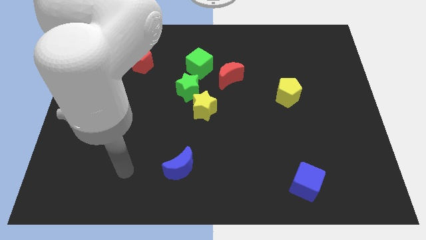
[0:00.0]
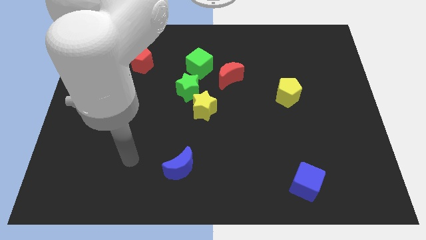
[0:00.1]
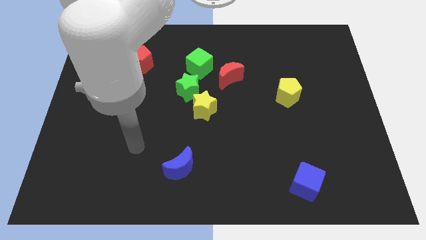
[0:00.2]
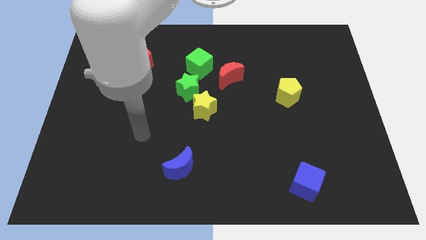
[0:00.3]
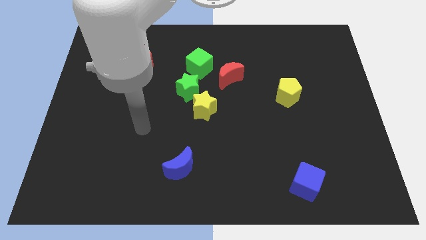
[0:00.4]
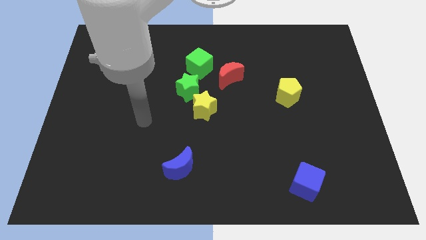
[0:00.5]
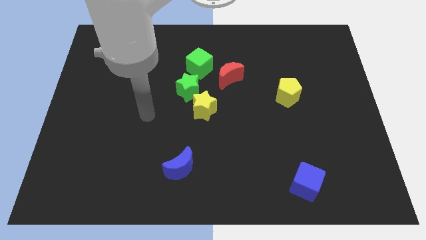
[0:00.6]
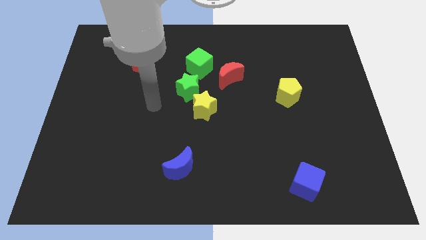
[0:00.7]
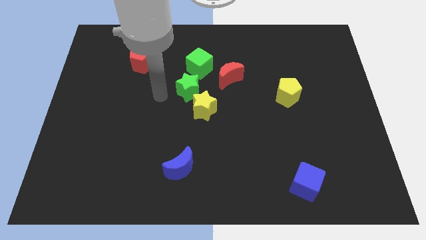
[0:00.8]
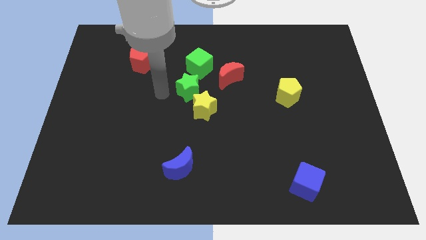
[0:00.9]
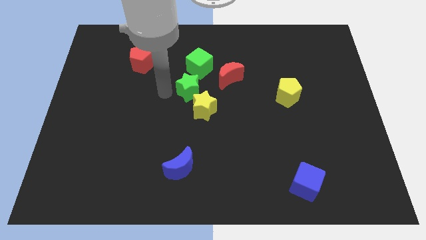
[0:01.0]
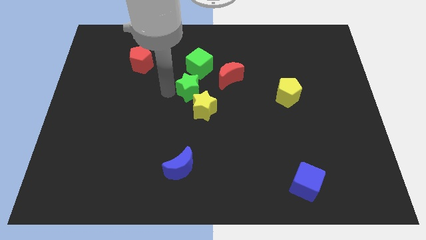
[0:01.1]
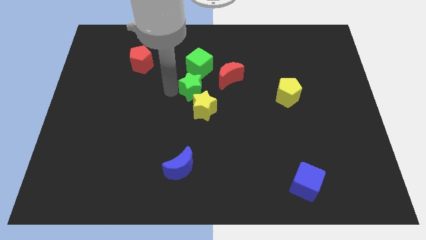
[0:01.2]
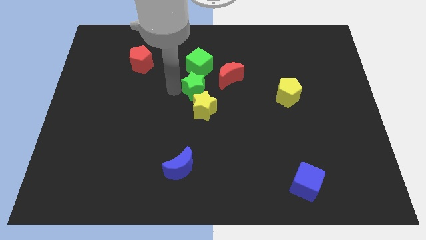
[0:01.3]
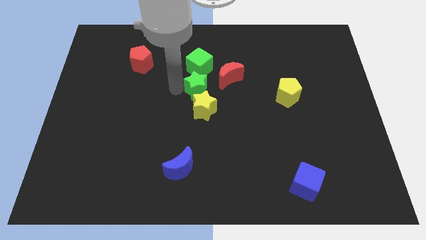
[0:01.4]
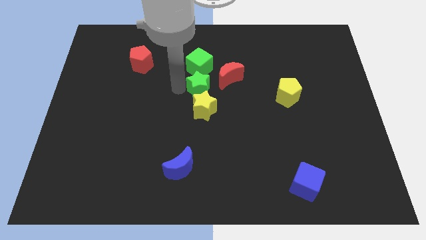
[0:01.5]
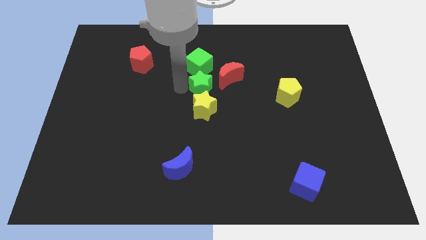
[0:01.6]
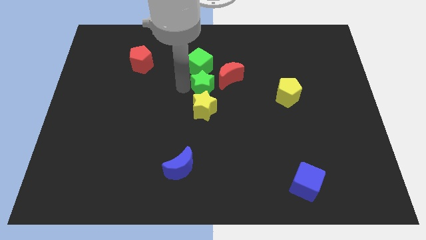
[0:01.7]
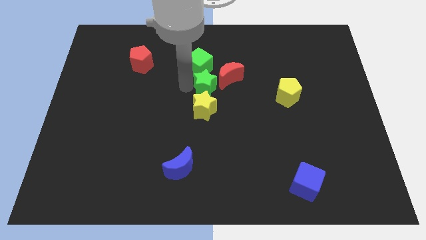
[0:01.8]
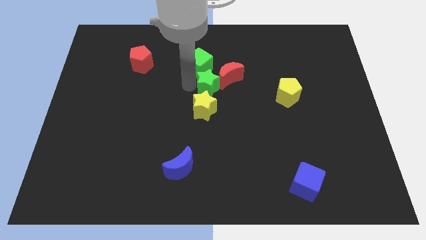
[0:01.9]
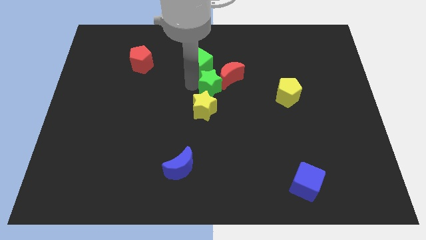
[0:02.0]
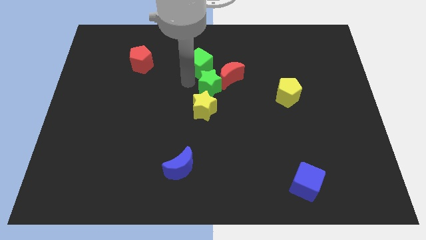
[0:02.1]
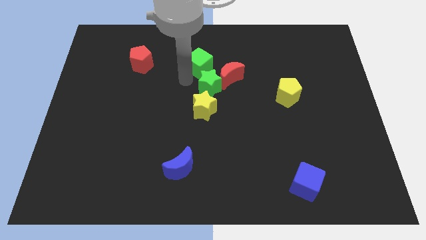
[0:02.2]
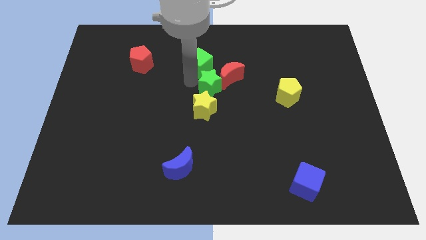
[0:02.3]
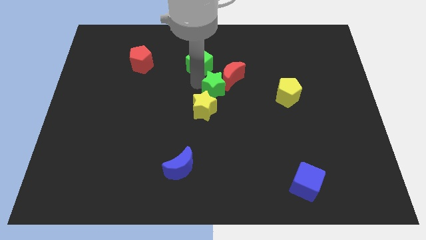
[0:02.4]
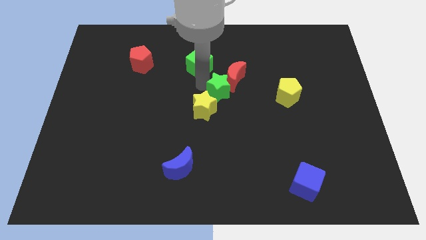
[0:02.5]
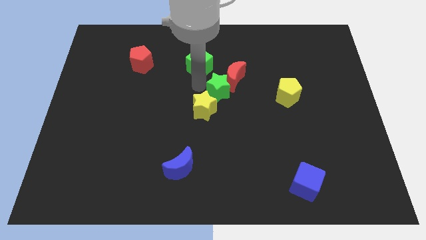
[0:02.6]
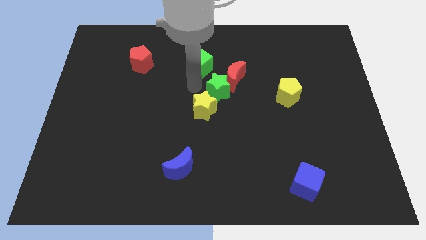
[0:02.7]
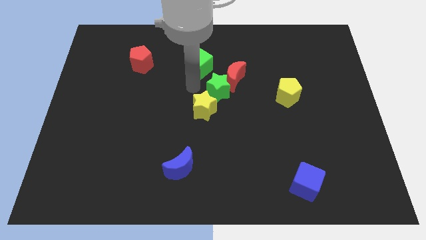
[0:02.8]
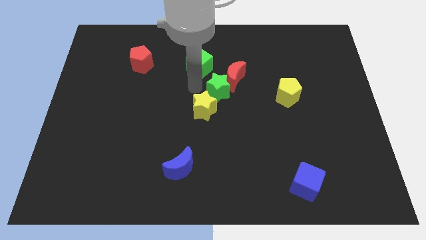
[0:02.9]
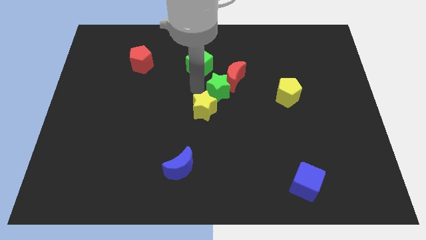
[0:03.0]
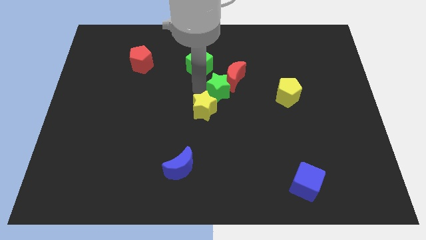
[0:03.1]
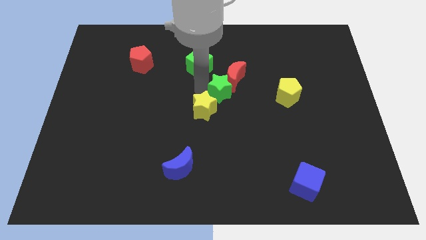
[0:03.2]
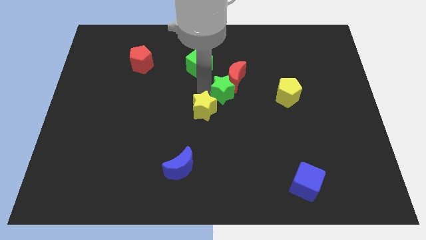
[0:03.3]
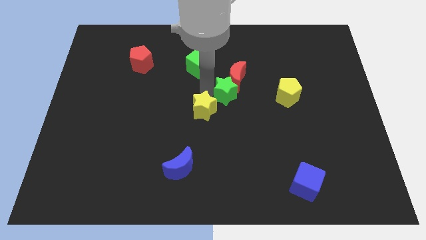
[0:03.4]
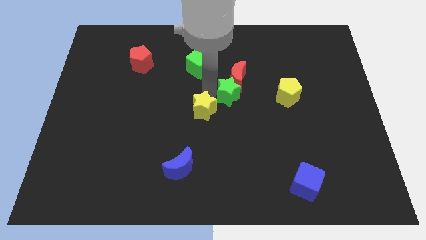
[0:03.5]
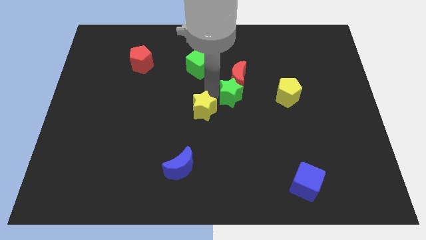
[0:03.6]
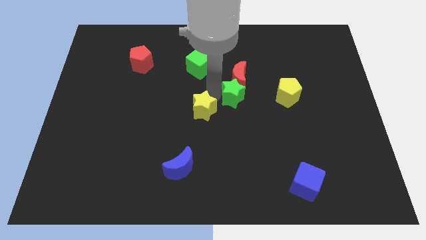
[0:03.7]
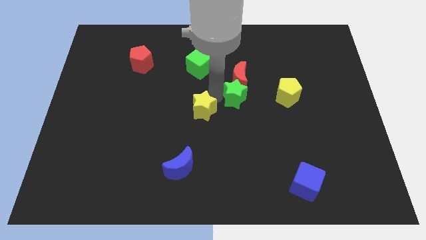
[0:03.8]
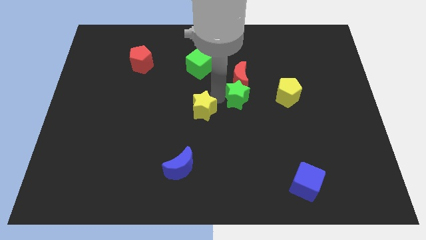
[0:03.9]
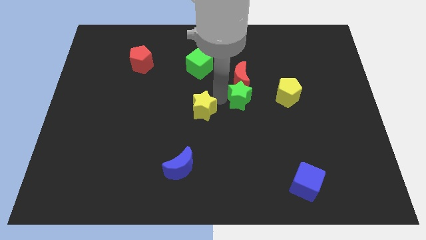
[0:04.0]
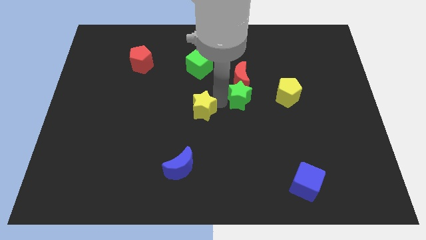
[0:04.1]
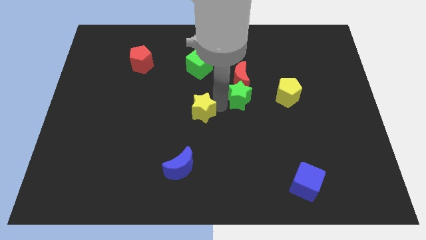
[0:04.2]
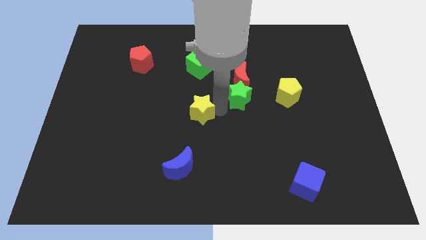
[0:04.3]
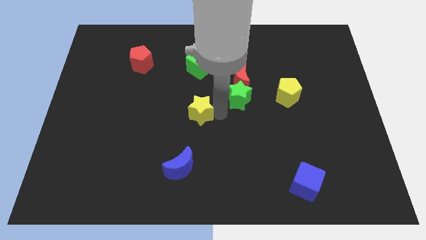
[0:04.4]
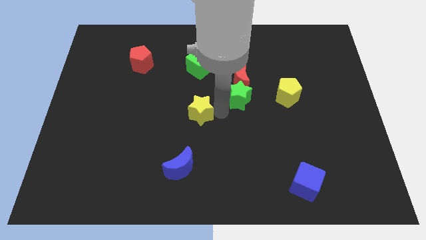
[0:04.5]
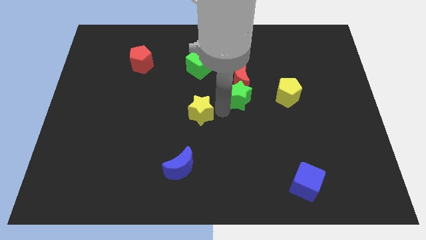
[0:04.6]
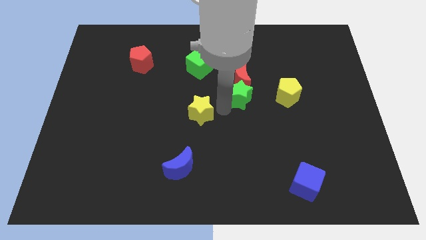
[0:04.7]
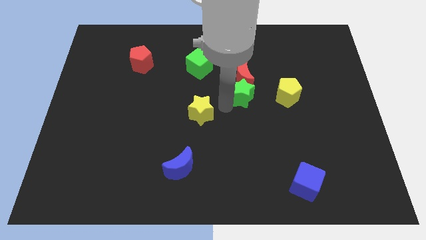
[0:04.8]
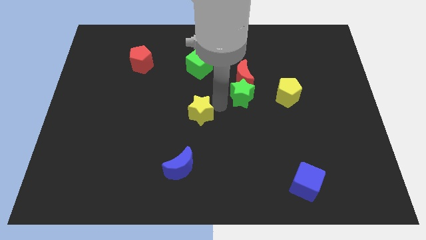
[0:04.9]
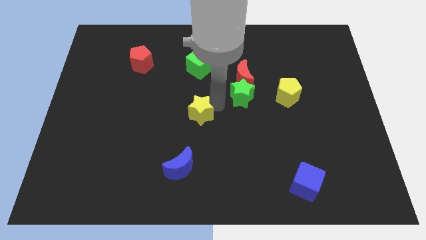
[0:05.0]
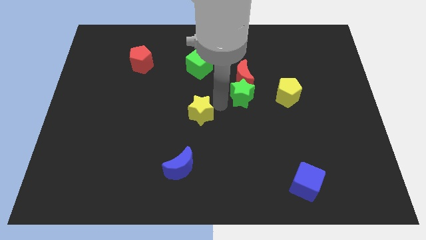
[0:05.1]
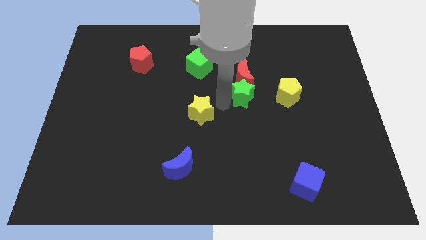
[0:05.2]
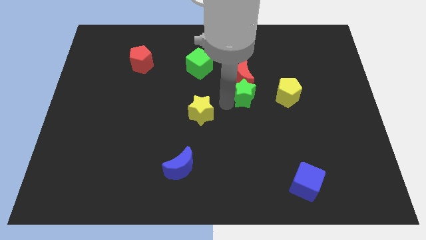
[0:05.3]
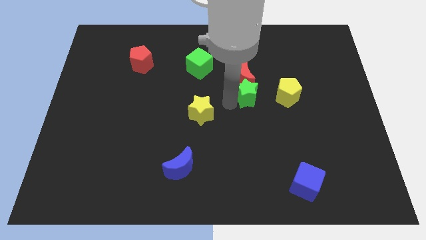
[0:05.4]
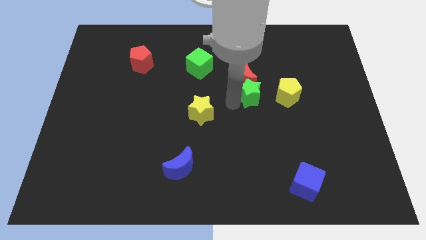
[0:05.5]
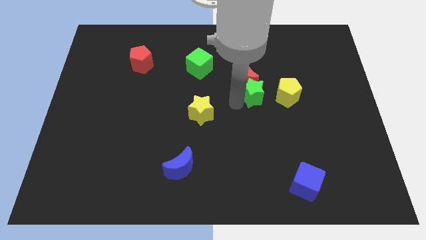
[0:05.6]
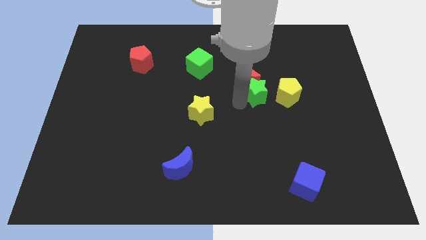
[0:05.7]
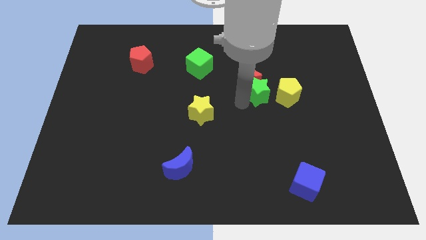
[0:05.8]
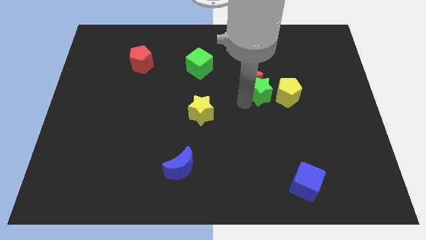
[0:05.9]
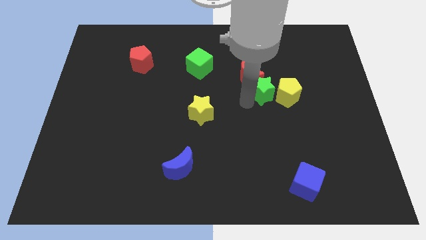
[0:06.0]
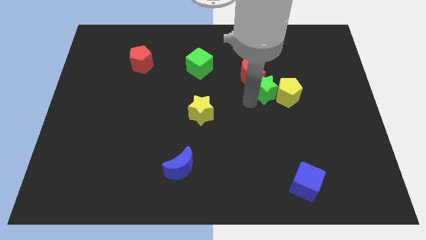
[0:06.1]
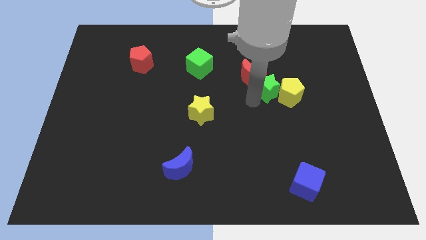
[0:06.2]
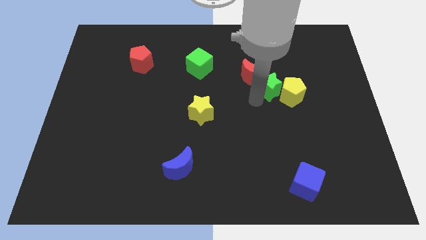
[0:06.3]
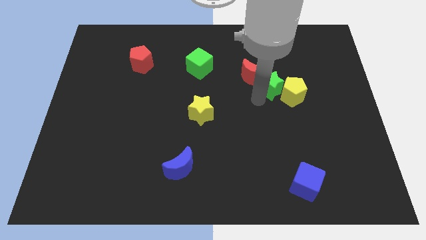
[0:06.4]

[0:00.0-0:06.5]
slide the green star right

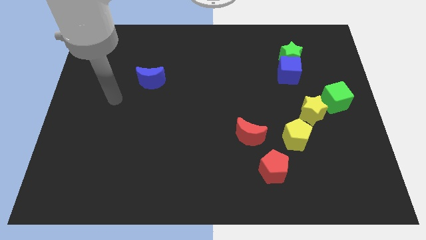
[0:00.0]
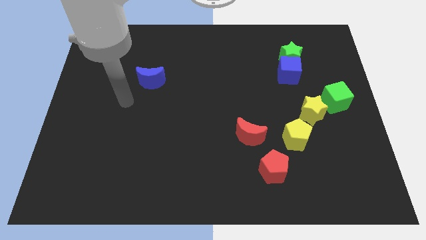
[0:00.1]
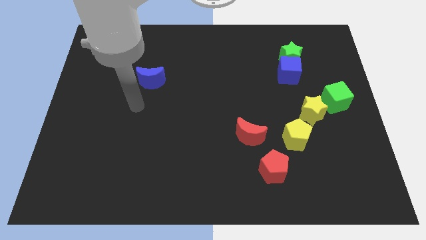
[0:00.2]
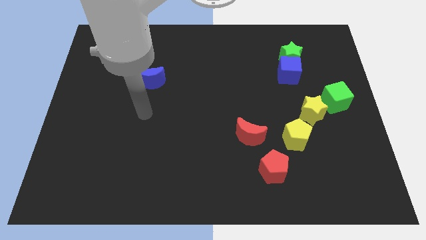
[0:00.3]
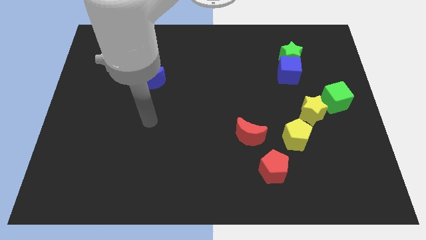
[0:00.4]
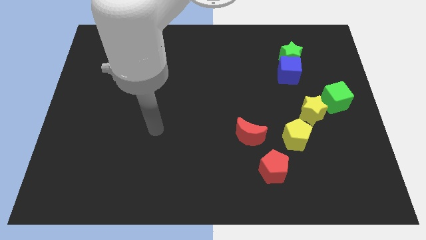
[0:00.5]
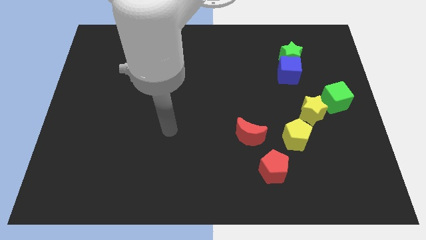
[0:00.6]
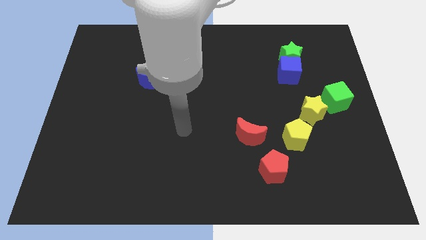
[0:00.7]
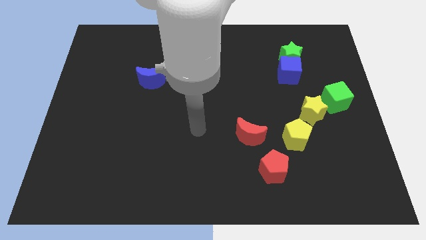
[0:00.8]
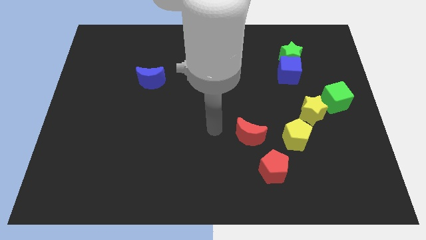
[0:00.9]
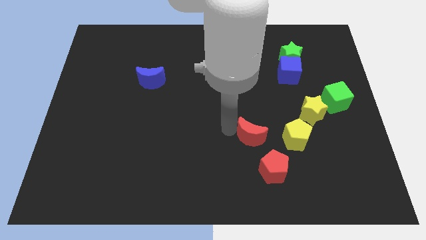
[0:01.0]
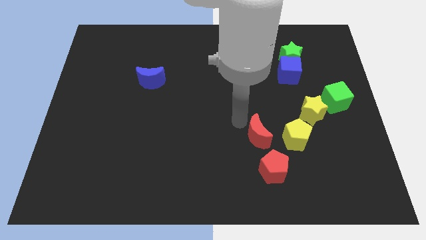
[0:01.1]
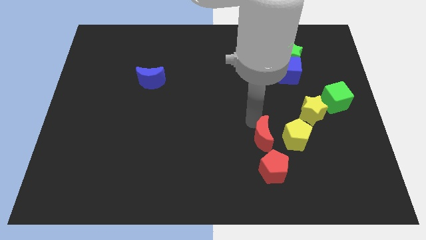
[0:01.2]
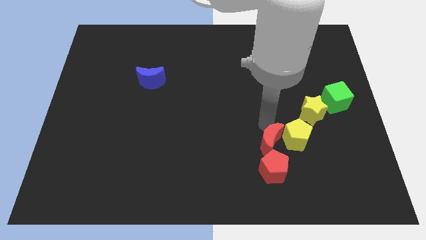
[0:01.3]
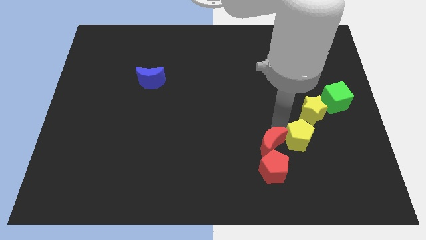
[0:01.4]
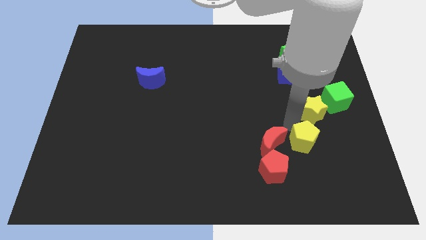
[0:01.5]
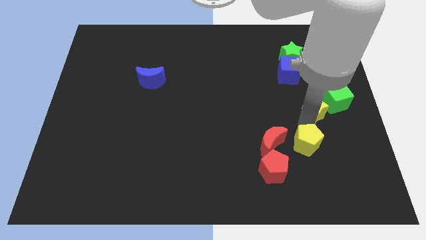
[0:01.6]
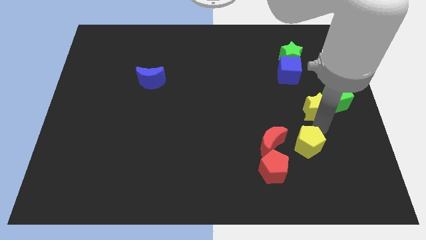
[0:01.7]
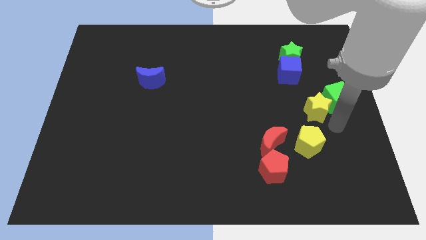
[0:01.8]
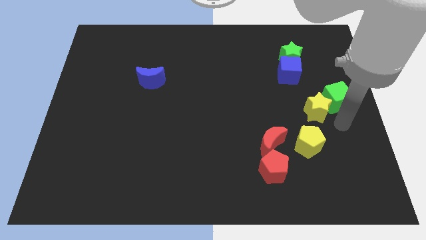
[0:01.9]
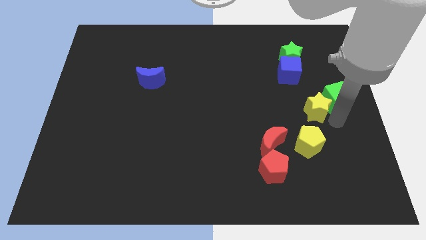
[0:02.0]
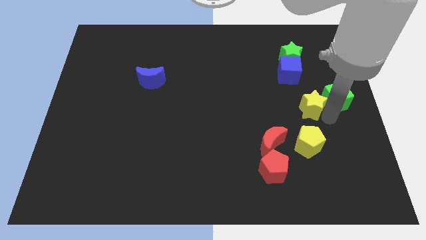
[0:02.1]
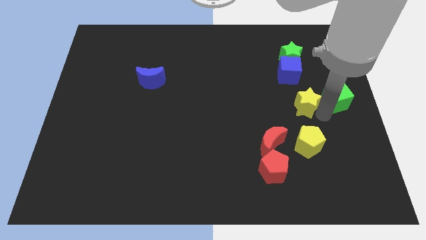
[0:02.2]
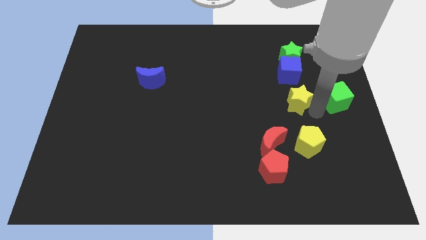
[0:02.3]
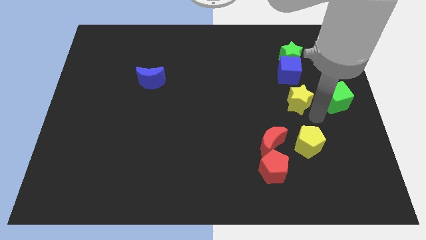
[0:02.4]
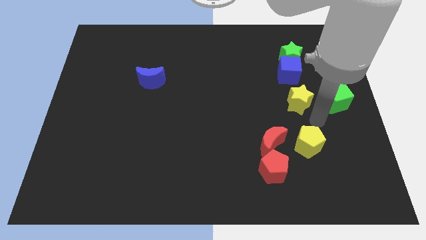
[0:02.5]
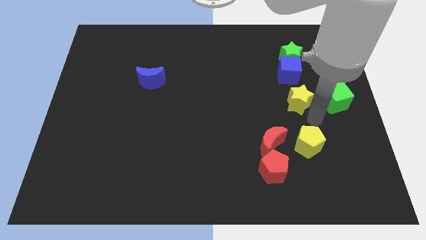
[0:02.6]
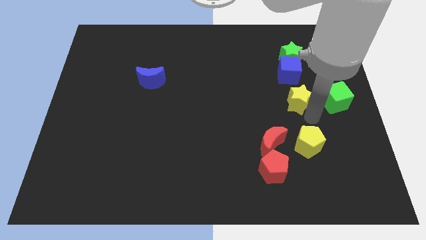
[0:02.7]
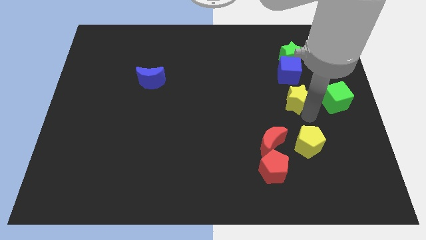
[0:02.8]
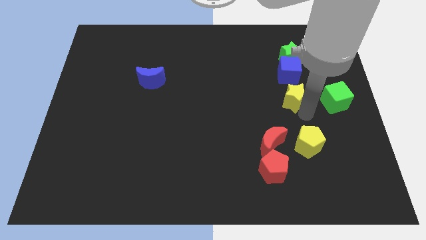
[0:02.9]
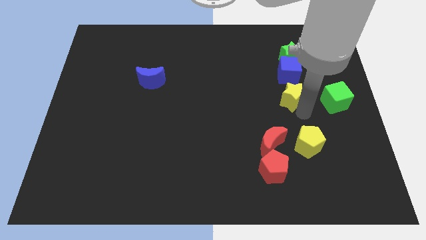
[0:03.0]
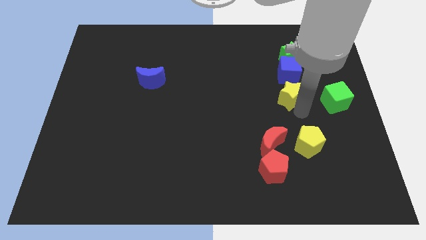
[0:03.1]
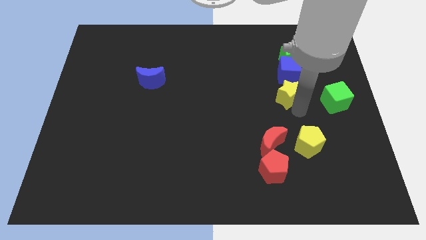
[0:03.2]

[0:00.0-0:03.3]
push the yellow star a little bit diagonally upwards and to the left
